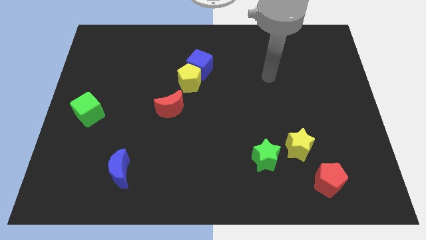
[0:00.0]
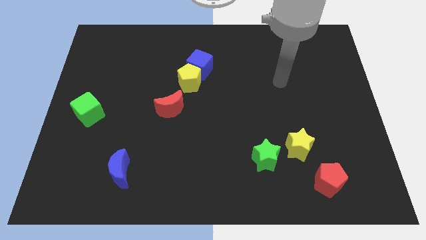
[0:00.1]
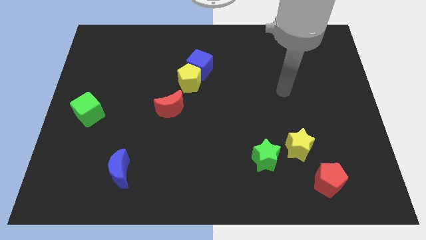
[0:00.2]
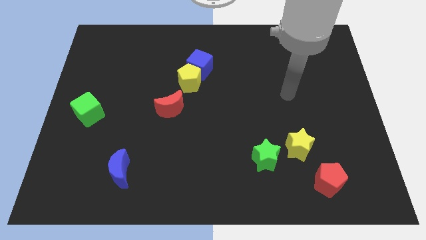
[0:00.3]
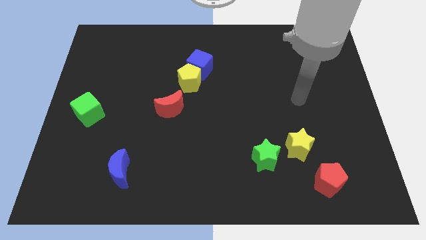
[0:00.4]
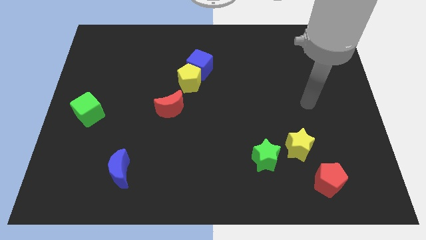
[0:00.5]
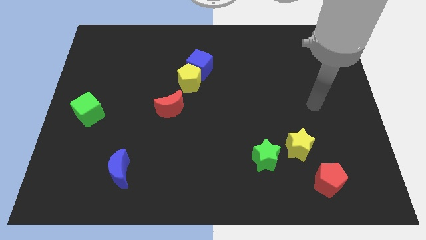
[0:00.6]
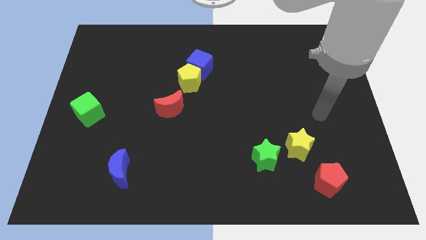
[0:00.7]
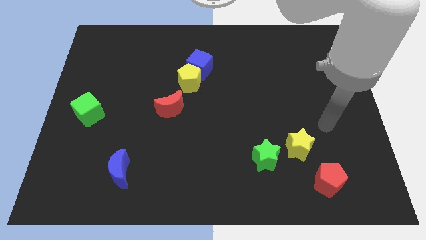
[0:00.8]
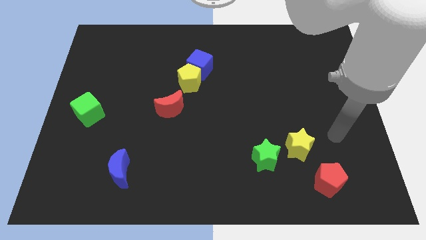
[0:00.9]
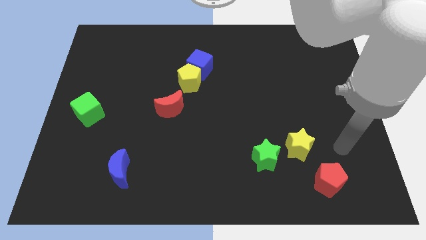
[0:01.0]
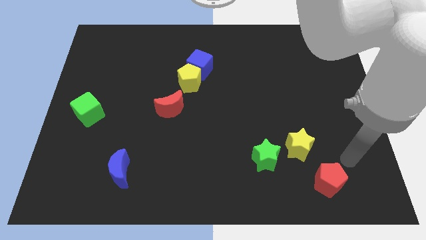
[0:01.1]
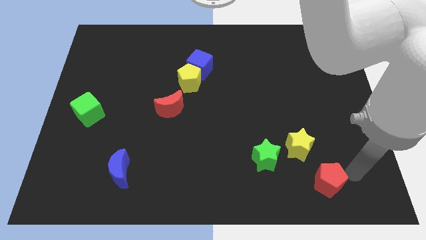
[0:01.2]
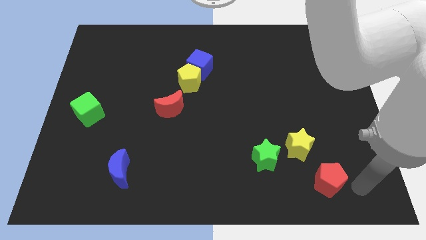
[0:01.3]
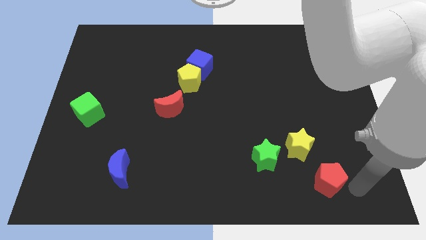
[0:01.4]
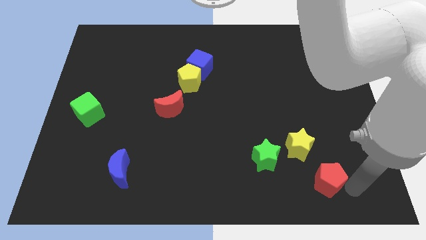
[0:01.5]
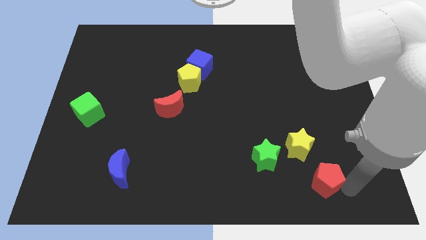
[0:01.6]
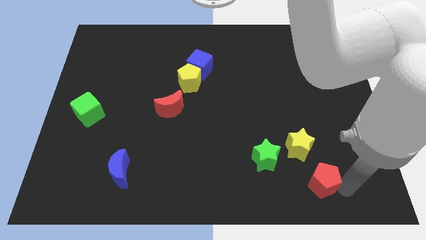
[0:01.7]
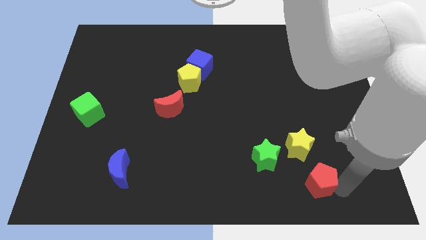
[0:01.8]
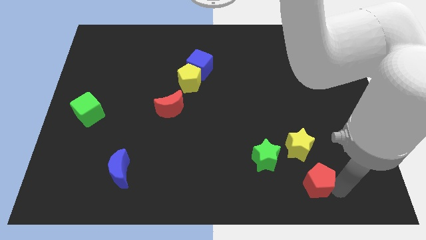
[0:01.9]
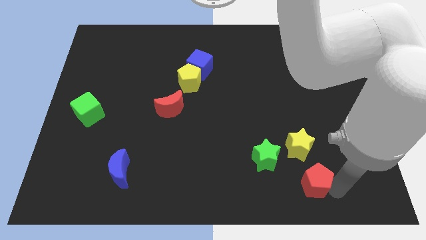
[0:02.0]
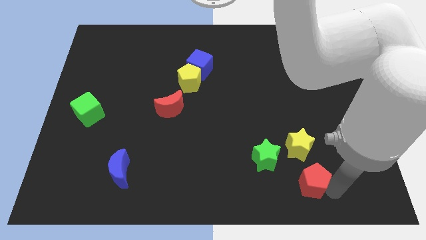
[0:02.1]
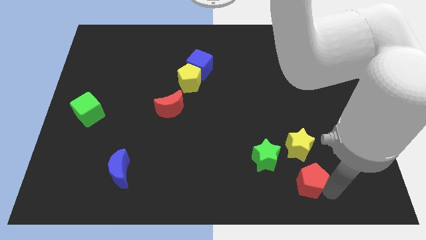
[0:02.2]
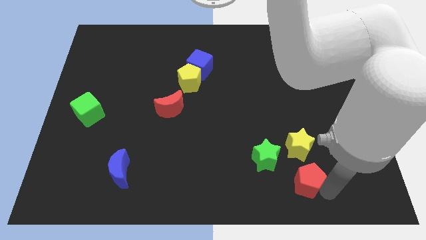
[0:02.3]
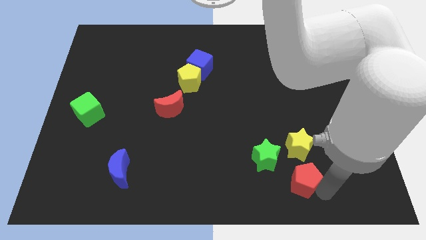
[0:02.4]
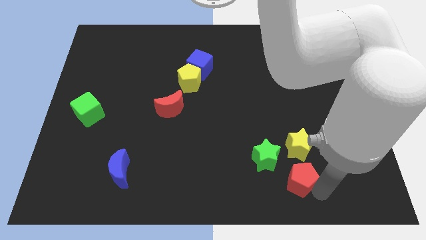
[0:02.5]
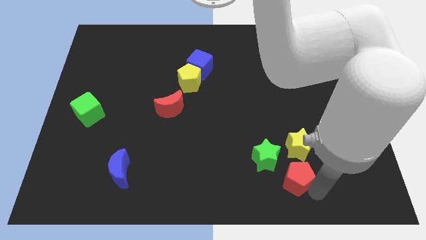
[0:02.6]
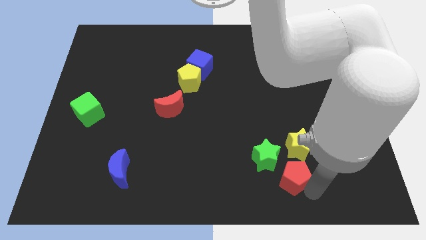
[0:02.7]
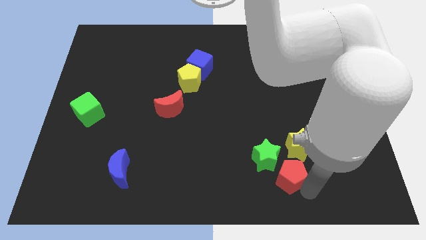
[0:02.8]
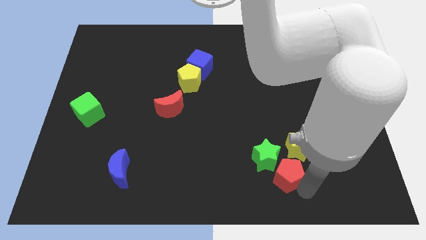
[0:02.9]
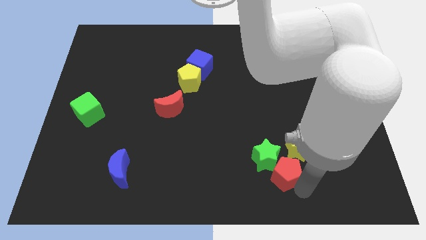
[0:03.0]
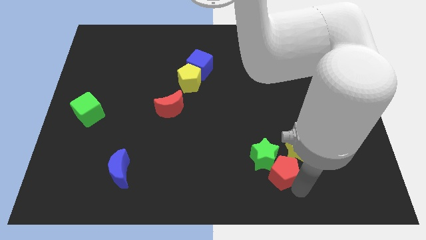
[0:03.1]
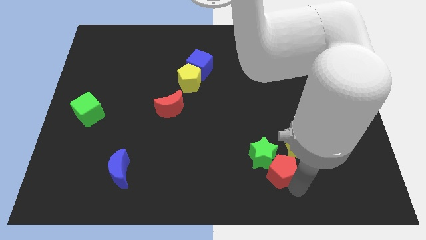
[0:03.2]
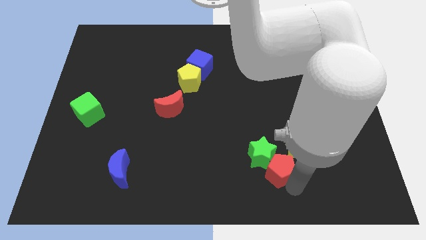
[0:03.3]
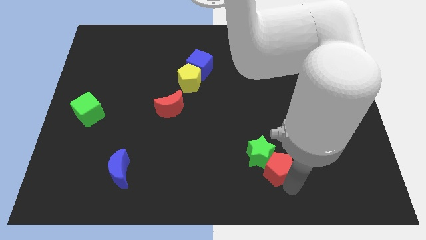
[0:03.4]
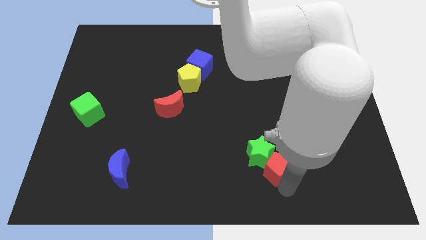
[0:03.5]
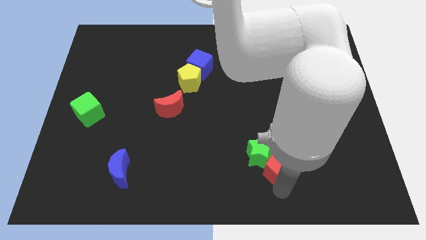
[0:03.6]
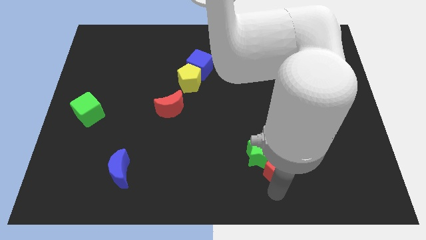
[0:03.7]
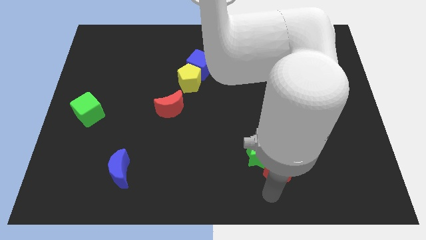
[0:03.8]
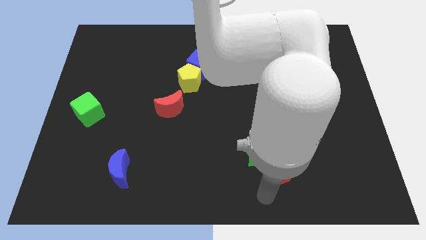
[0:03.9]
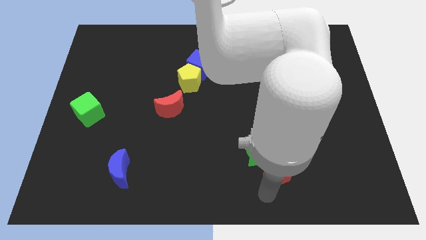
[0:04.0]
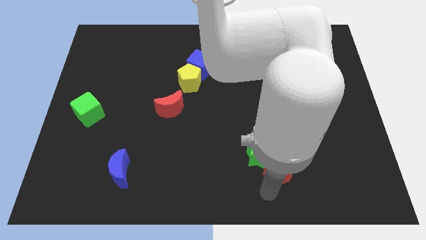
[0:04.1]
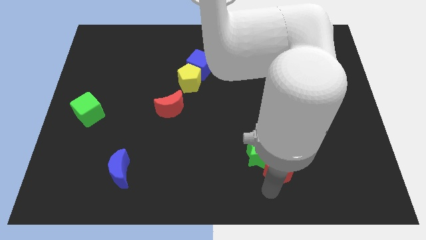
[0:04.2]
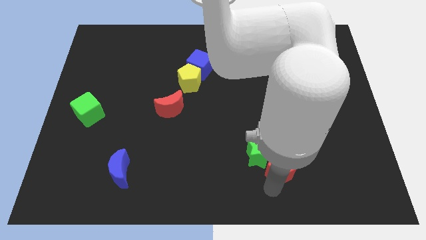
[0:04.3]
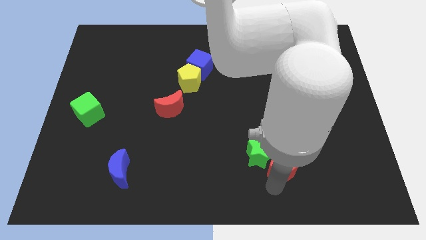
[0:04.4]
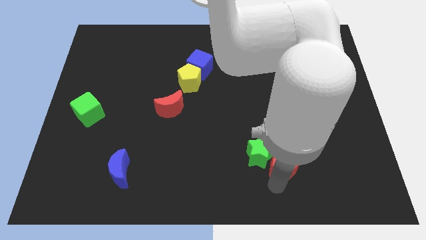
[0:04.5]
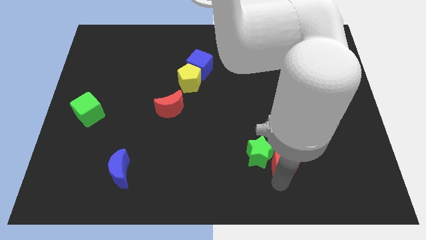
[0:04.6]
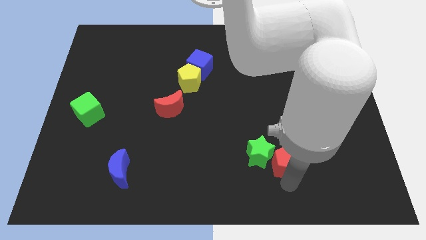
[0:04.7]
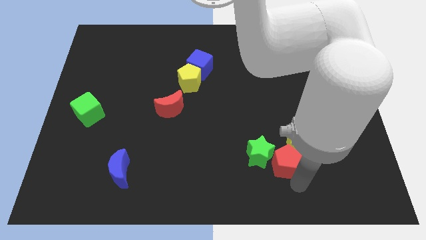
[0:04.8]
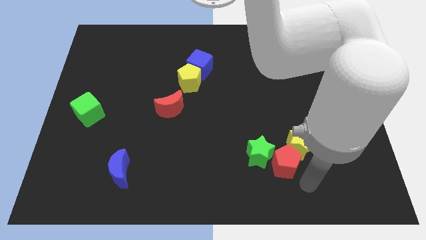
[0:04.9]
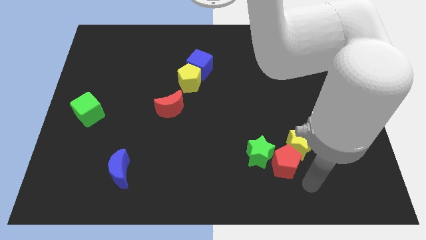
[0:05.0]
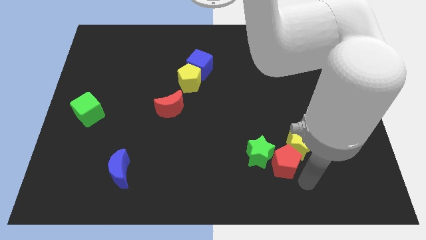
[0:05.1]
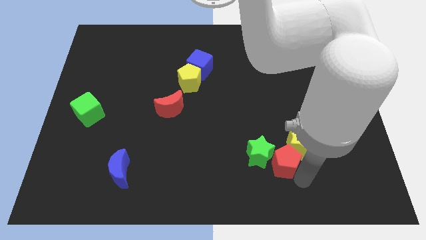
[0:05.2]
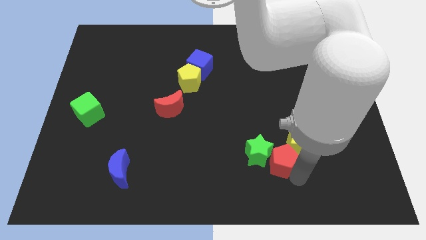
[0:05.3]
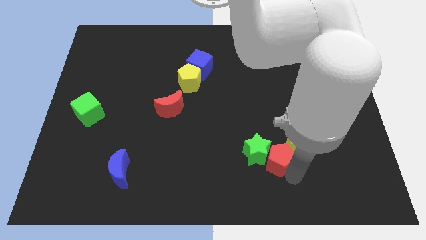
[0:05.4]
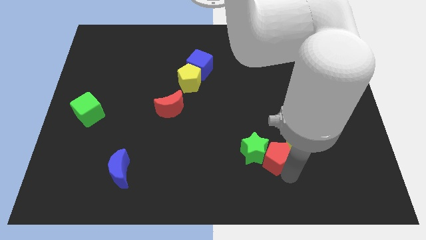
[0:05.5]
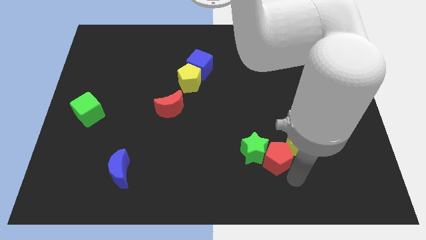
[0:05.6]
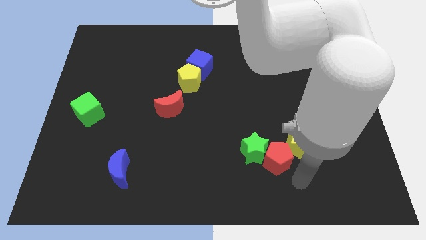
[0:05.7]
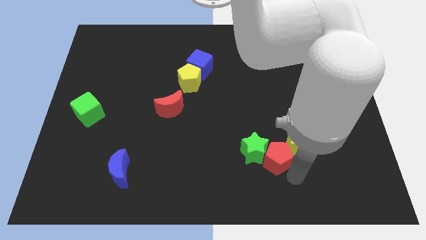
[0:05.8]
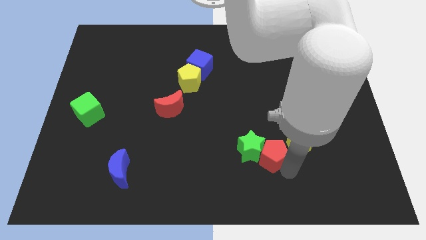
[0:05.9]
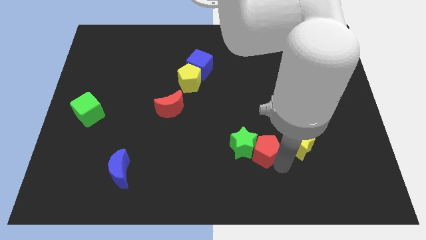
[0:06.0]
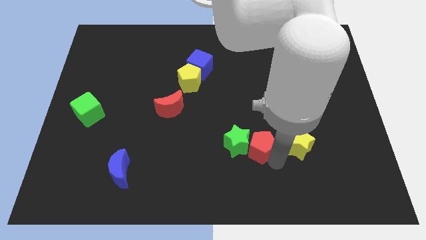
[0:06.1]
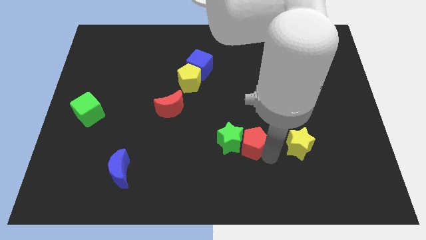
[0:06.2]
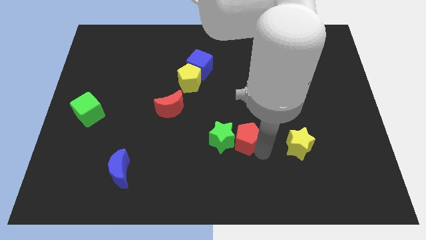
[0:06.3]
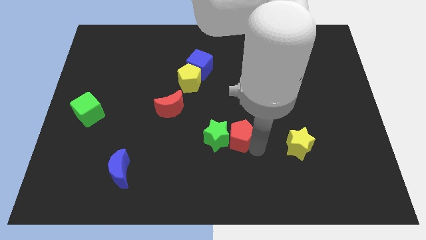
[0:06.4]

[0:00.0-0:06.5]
slide the red pentagon to the center of the board

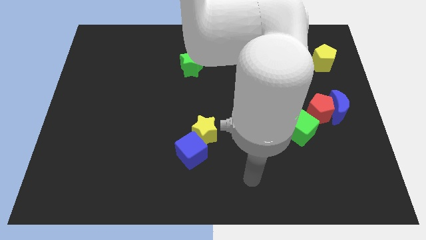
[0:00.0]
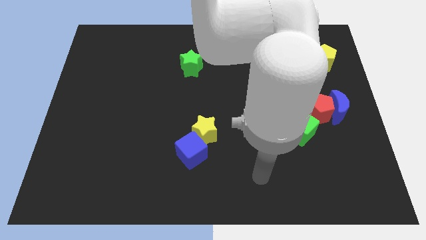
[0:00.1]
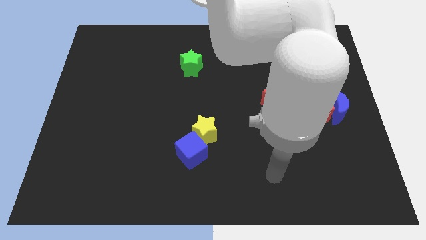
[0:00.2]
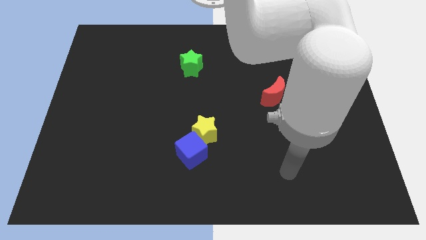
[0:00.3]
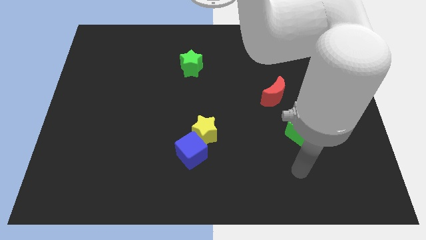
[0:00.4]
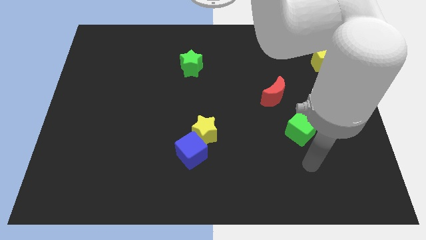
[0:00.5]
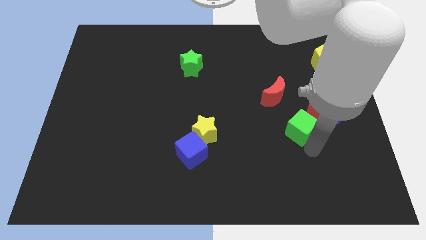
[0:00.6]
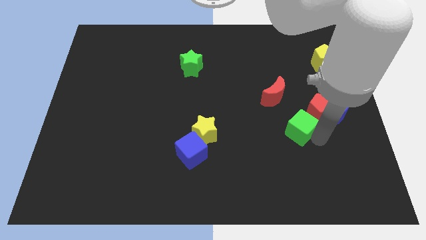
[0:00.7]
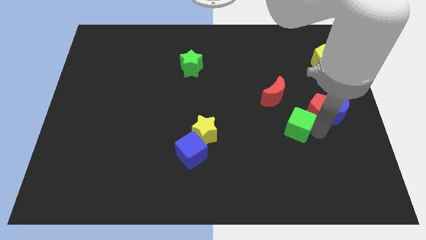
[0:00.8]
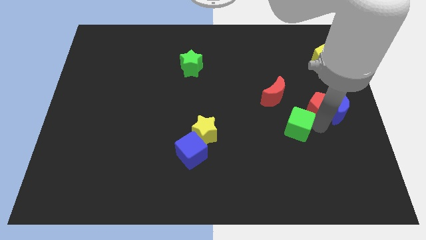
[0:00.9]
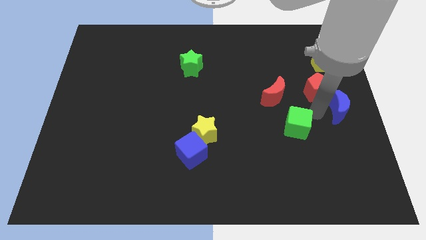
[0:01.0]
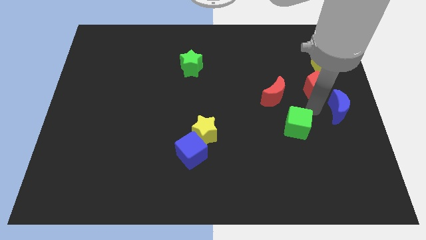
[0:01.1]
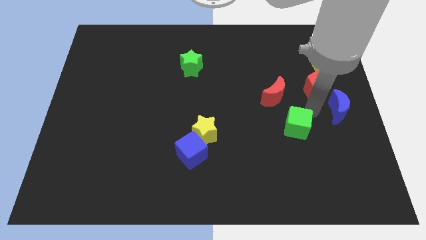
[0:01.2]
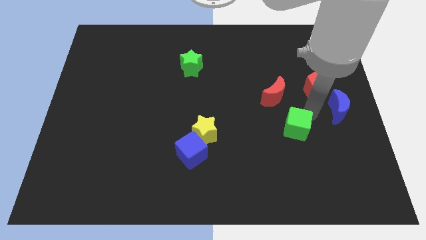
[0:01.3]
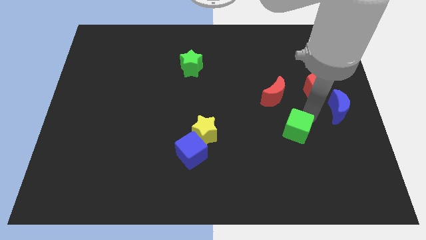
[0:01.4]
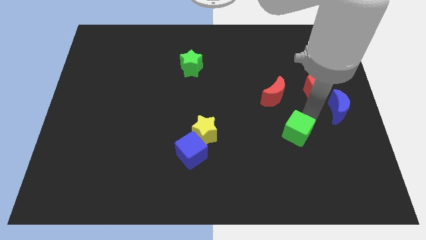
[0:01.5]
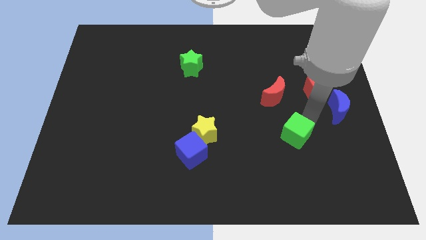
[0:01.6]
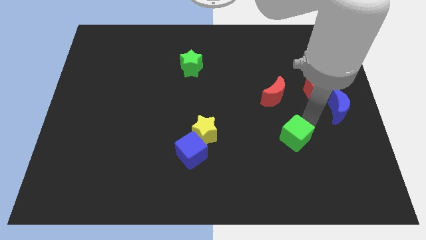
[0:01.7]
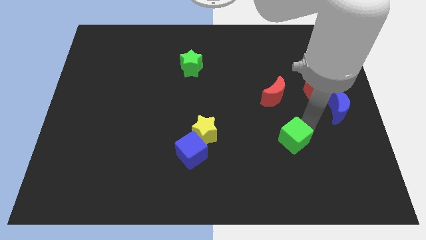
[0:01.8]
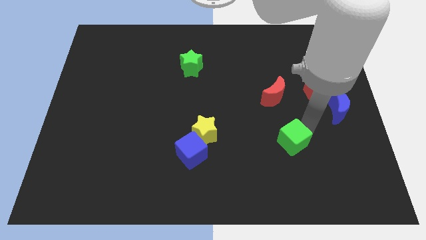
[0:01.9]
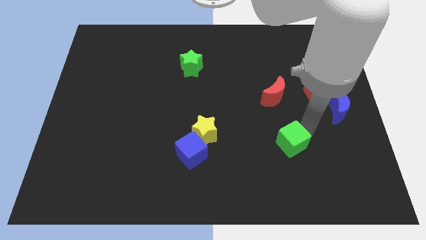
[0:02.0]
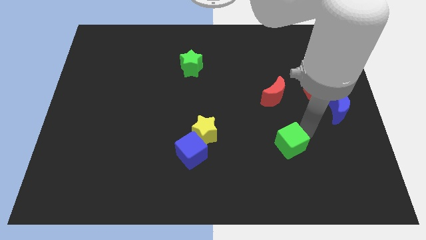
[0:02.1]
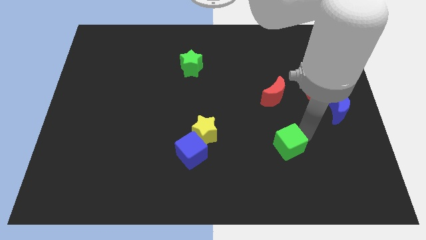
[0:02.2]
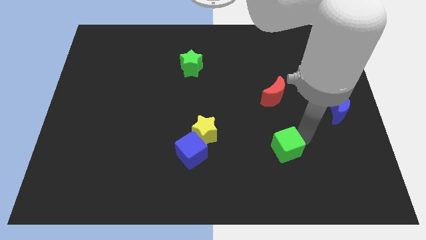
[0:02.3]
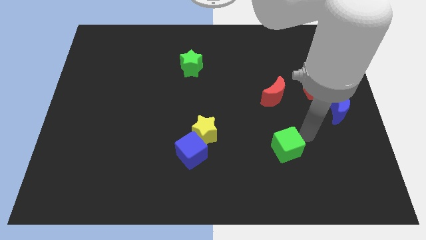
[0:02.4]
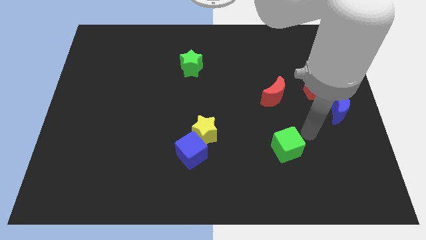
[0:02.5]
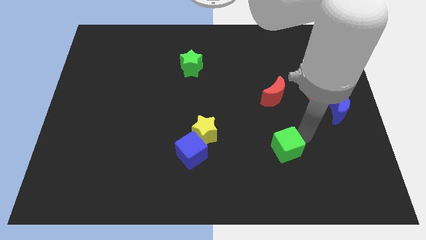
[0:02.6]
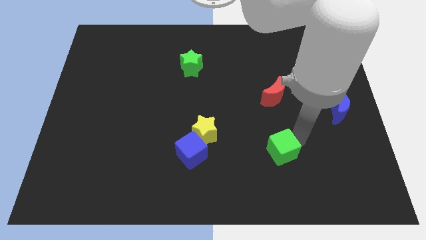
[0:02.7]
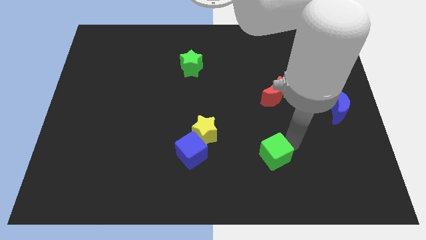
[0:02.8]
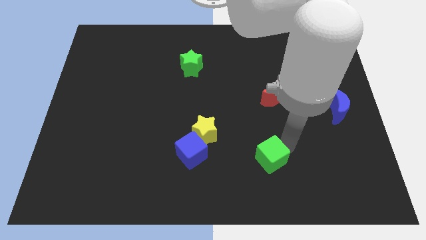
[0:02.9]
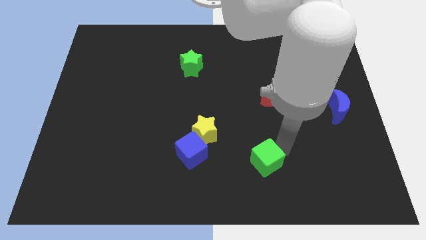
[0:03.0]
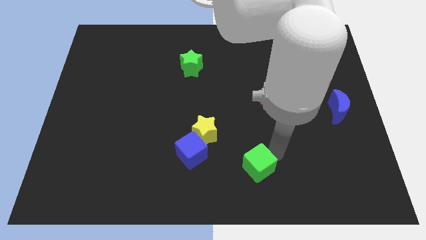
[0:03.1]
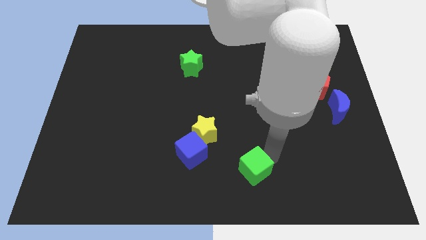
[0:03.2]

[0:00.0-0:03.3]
slide the green cube to the bottom side
